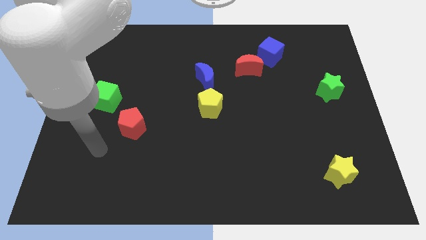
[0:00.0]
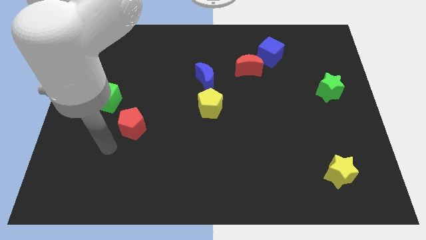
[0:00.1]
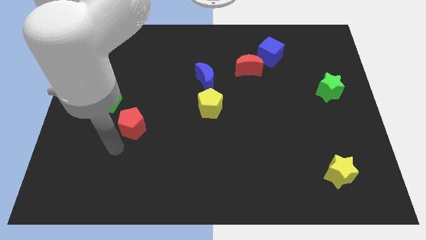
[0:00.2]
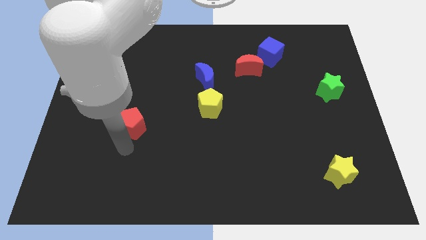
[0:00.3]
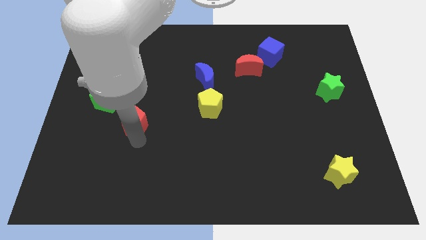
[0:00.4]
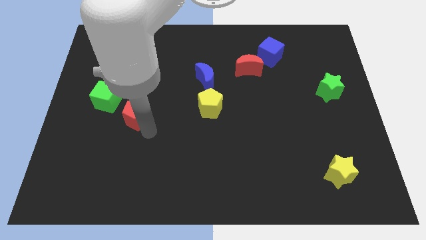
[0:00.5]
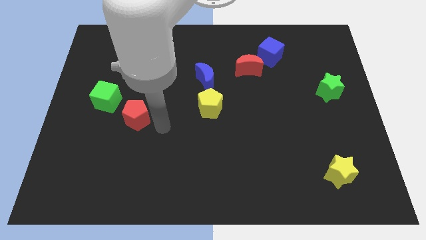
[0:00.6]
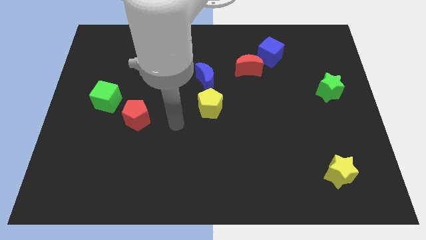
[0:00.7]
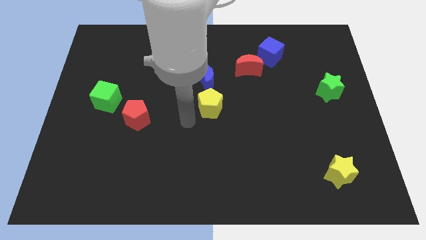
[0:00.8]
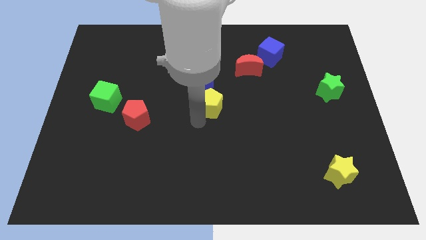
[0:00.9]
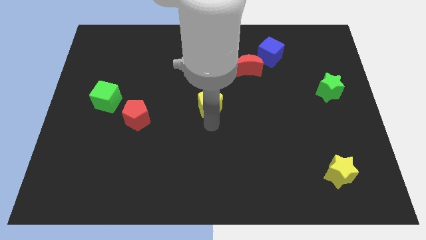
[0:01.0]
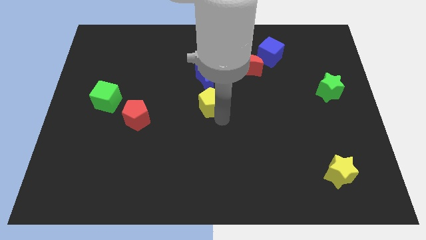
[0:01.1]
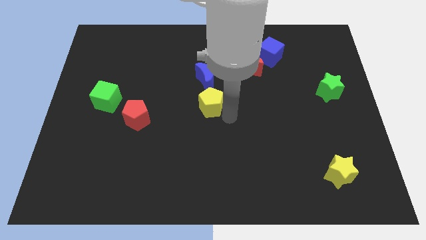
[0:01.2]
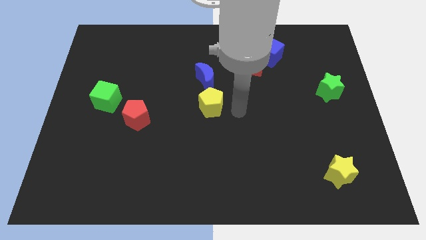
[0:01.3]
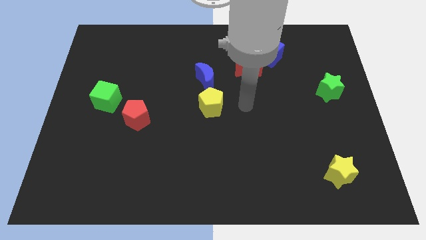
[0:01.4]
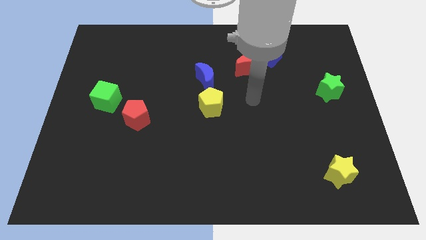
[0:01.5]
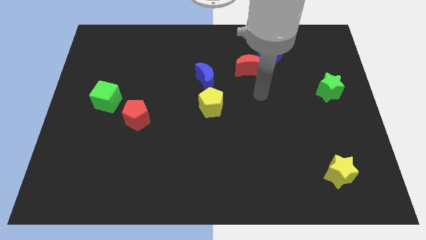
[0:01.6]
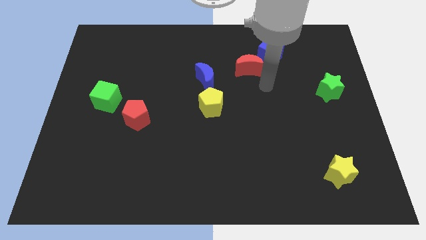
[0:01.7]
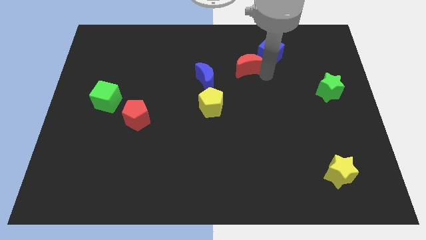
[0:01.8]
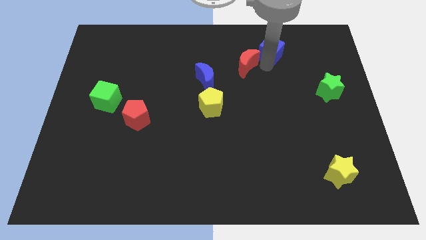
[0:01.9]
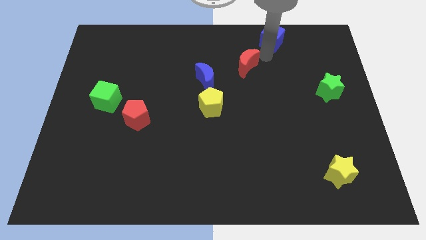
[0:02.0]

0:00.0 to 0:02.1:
separate the red moon from the blue cube

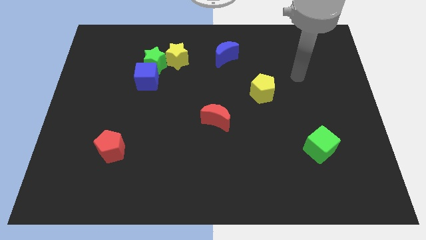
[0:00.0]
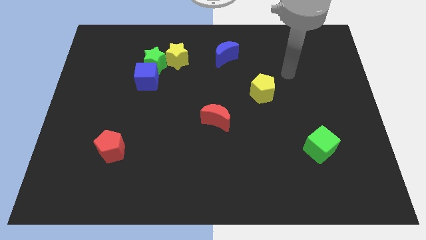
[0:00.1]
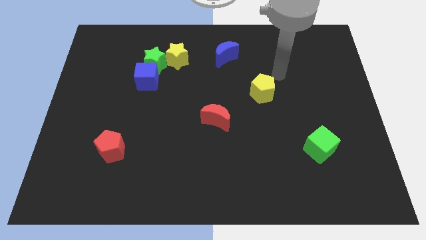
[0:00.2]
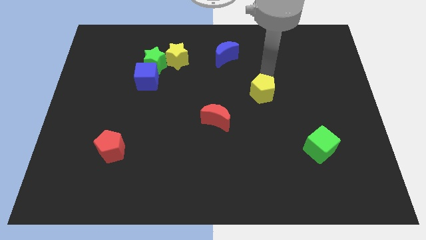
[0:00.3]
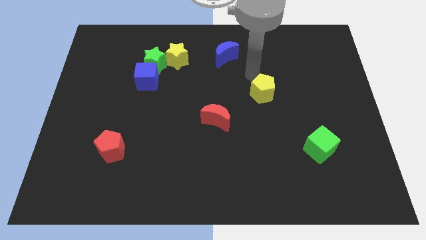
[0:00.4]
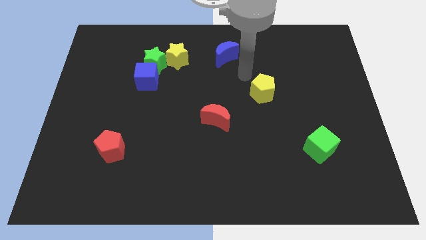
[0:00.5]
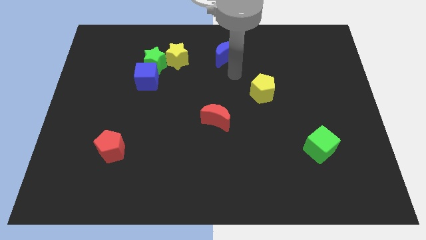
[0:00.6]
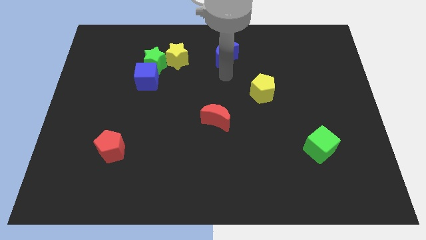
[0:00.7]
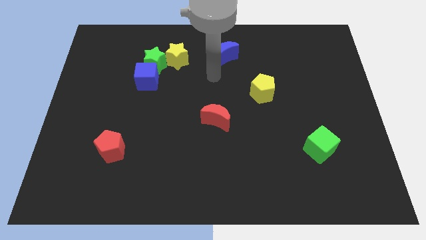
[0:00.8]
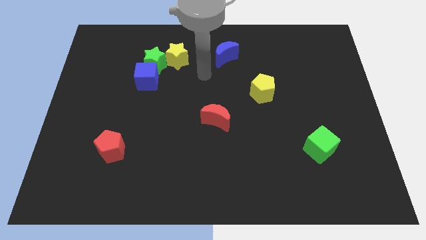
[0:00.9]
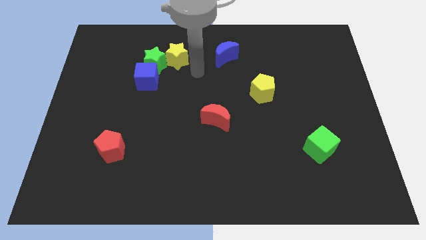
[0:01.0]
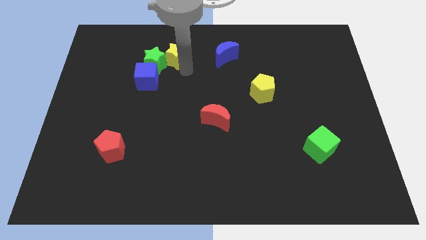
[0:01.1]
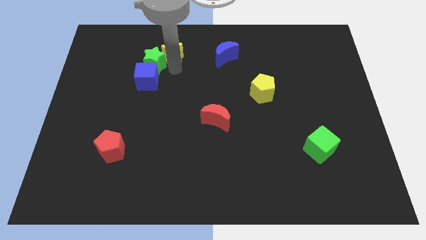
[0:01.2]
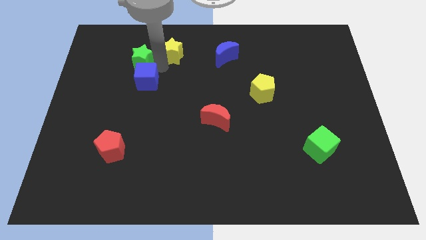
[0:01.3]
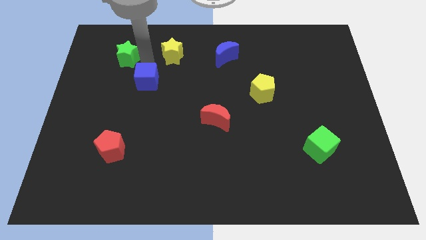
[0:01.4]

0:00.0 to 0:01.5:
separate the blue cube from the green star

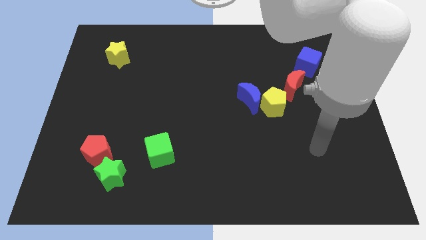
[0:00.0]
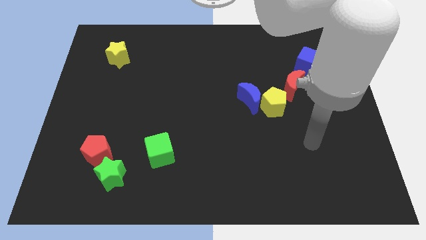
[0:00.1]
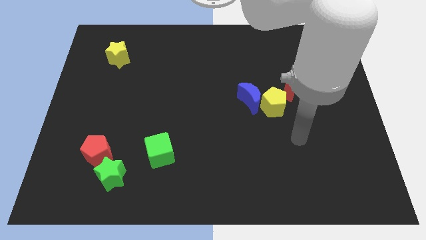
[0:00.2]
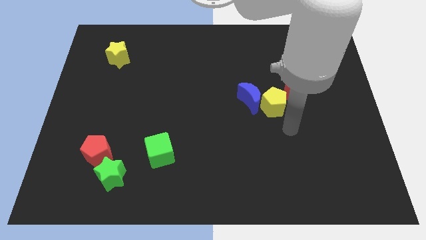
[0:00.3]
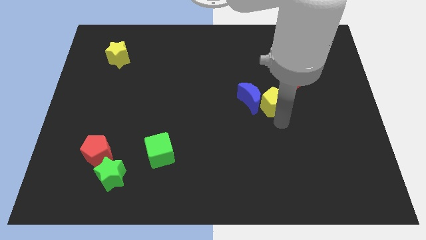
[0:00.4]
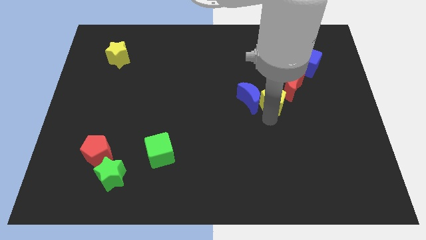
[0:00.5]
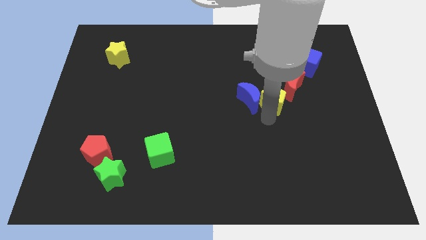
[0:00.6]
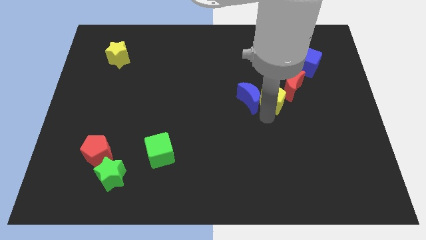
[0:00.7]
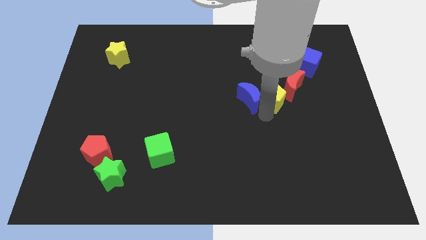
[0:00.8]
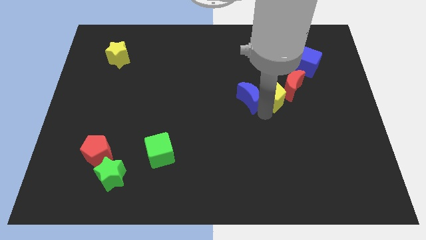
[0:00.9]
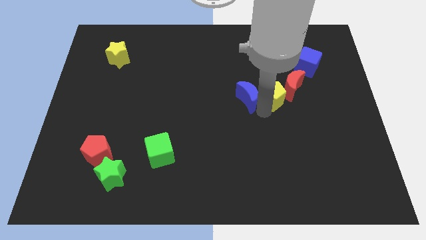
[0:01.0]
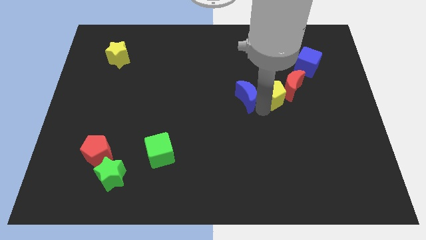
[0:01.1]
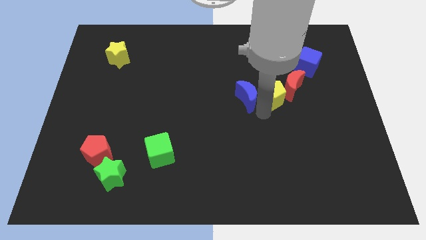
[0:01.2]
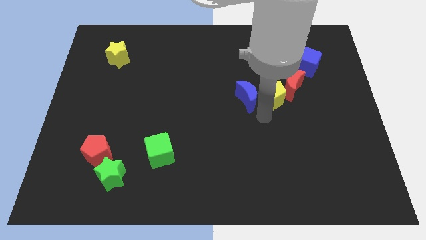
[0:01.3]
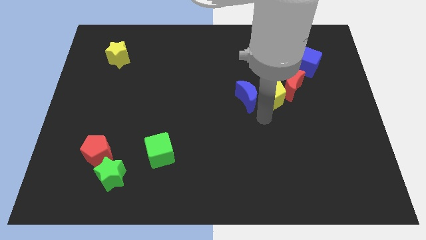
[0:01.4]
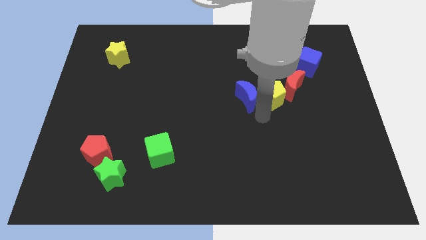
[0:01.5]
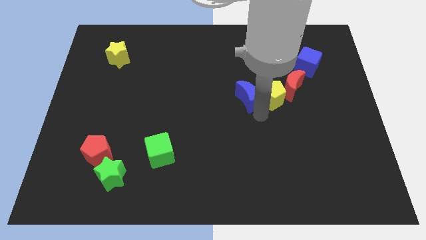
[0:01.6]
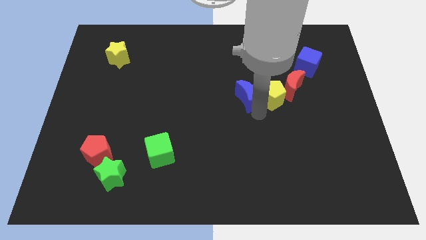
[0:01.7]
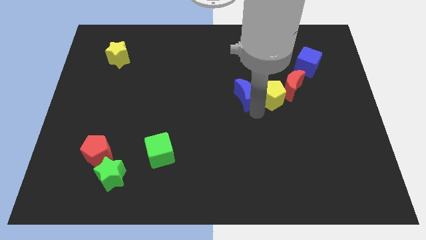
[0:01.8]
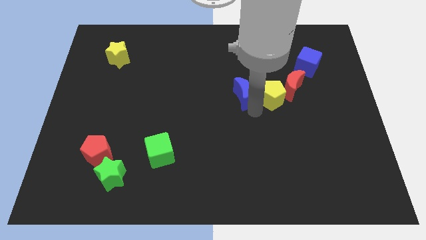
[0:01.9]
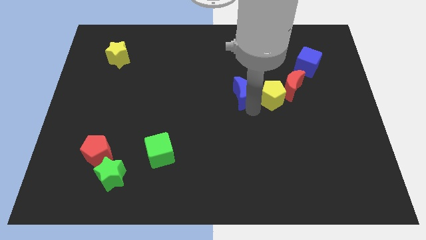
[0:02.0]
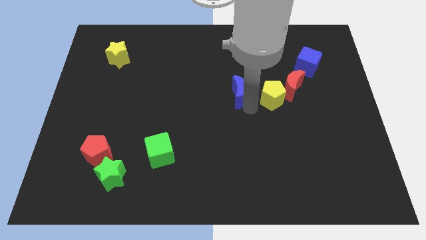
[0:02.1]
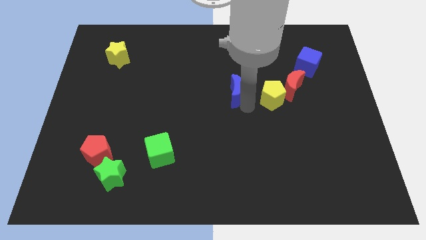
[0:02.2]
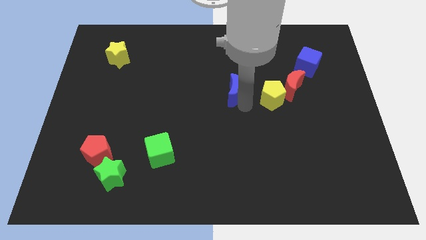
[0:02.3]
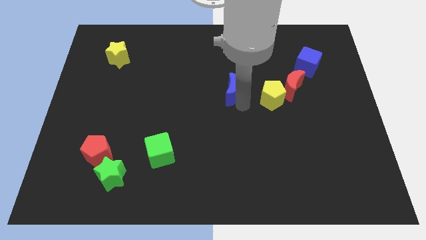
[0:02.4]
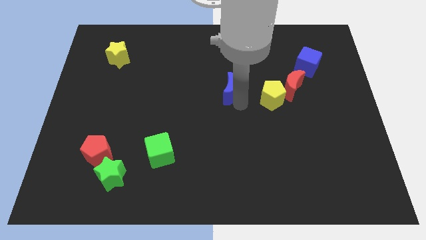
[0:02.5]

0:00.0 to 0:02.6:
pull the blue moon apart from the yellow pentagon

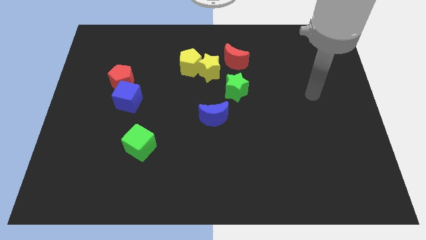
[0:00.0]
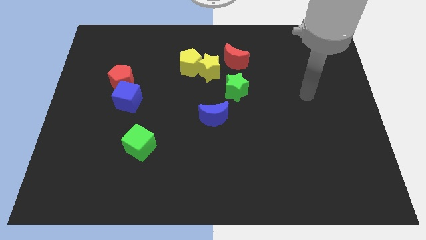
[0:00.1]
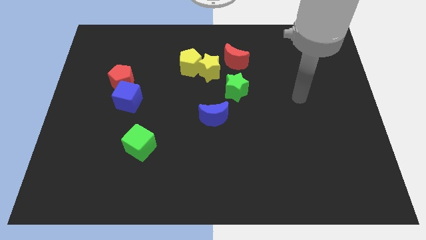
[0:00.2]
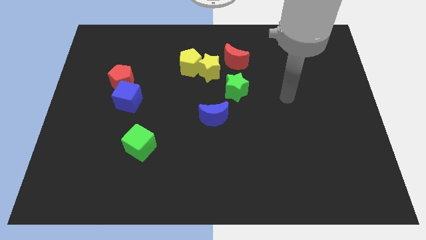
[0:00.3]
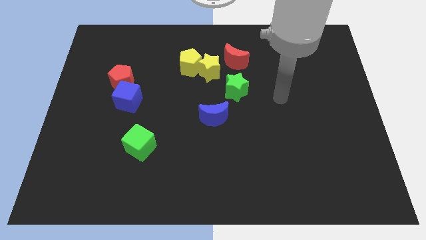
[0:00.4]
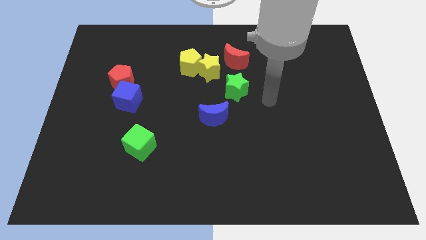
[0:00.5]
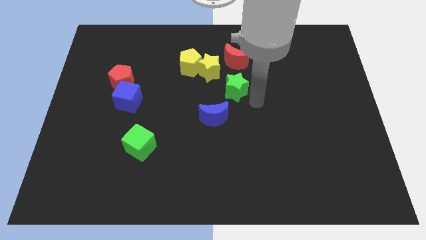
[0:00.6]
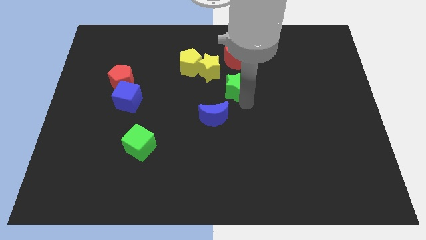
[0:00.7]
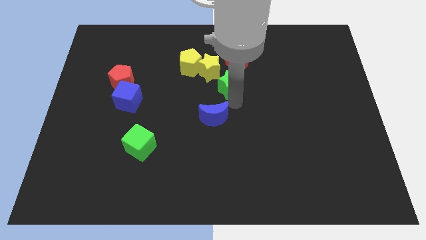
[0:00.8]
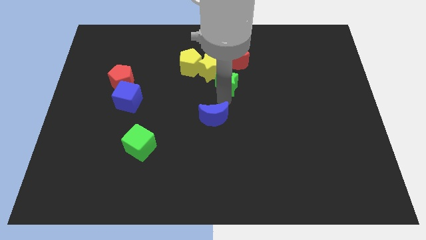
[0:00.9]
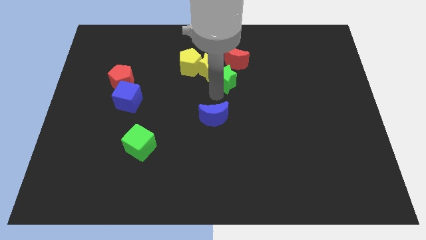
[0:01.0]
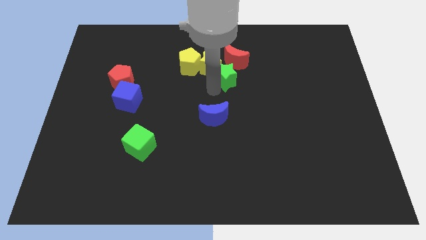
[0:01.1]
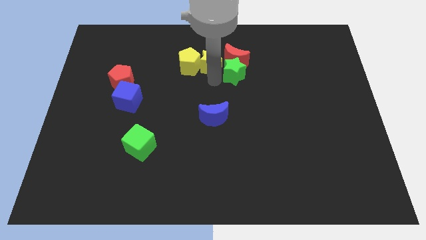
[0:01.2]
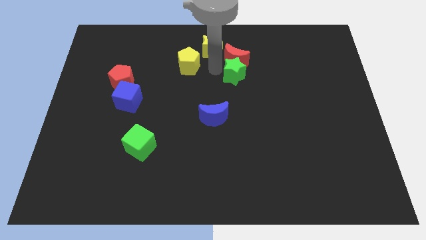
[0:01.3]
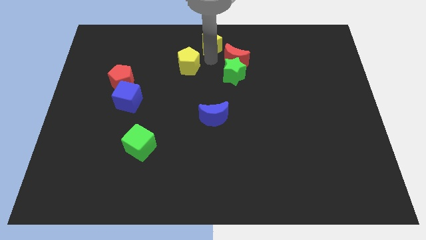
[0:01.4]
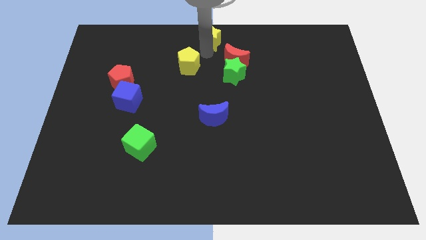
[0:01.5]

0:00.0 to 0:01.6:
move the yellow pentagon away from the yellow star

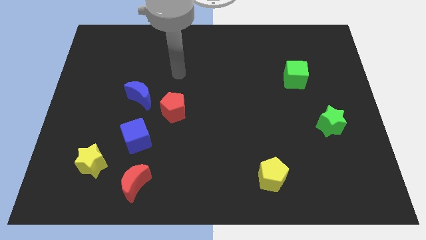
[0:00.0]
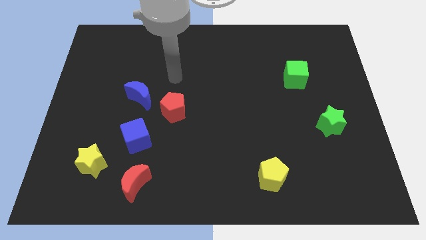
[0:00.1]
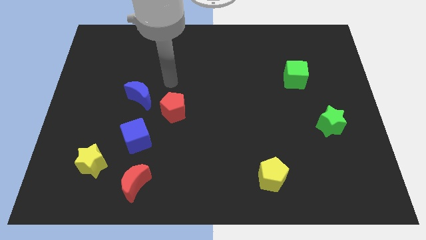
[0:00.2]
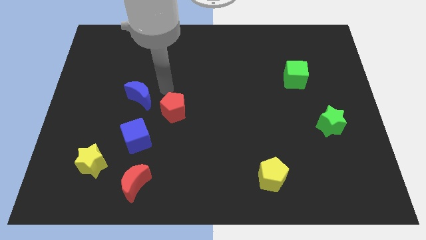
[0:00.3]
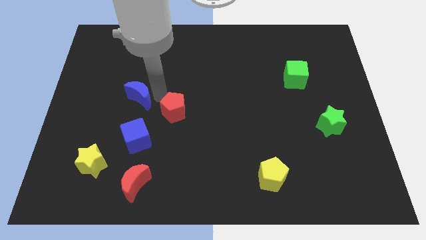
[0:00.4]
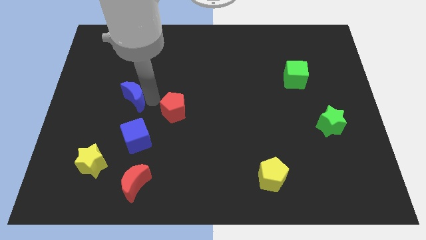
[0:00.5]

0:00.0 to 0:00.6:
pull the red pentagon apart from the blue moon

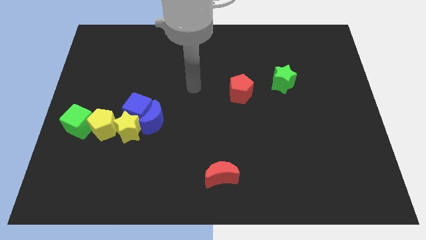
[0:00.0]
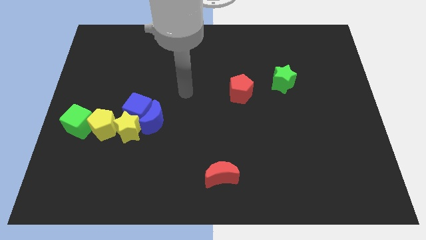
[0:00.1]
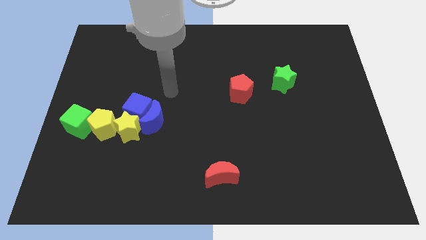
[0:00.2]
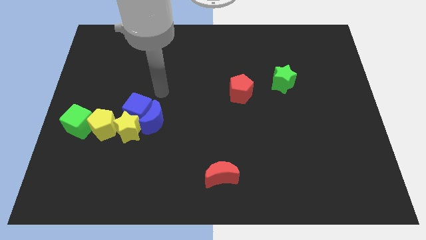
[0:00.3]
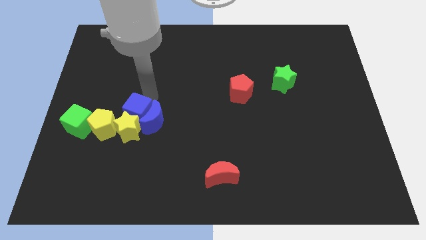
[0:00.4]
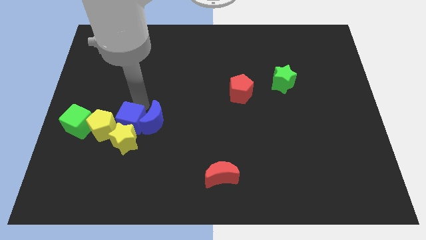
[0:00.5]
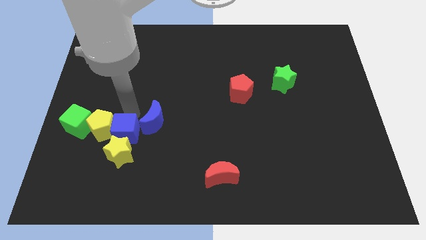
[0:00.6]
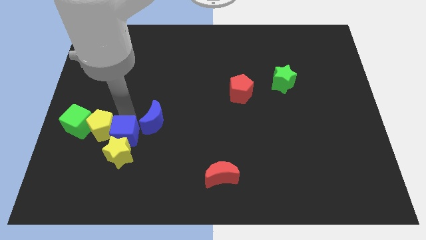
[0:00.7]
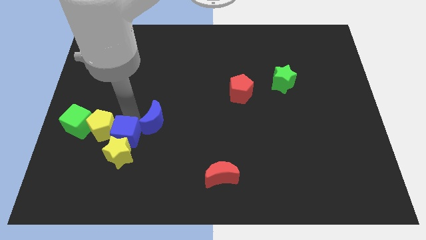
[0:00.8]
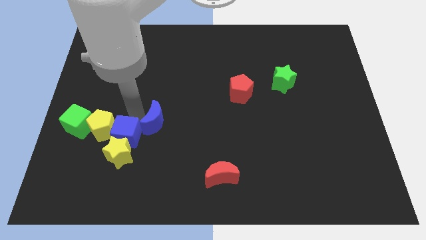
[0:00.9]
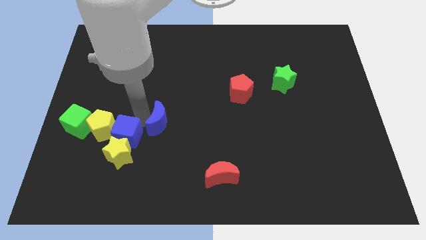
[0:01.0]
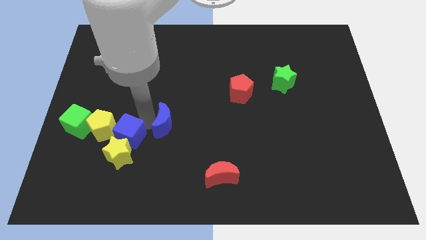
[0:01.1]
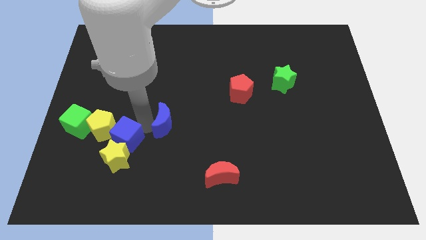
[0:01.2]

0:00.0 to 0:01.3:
pull the blue moon apart from the blue cube and yellow star
